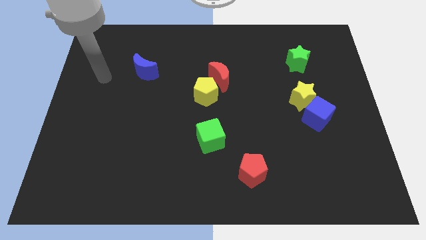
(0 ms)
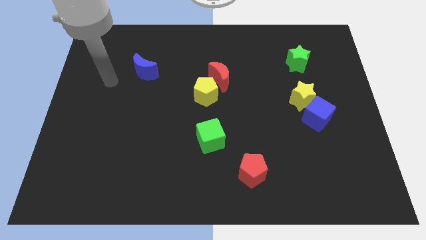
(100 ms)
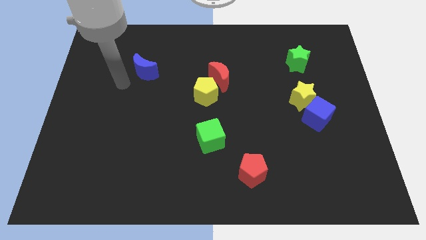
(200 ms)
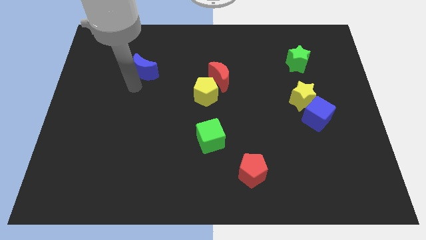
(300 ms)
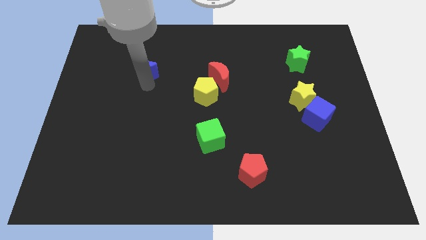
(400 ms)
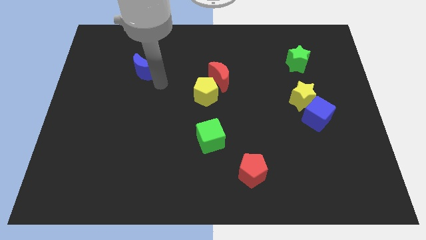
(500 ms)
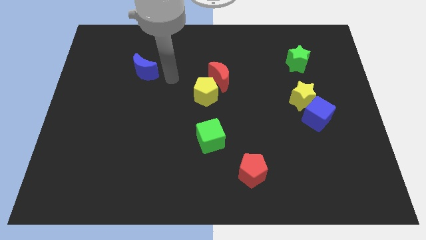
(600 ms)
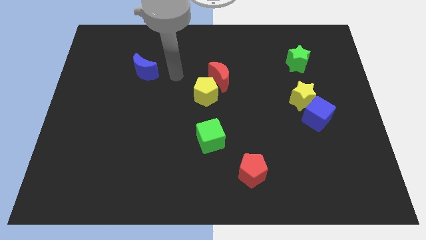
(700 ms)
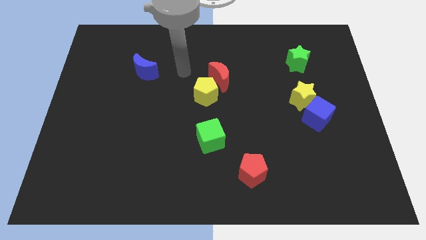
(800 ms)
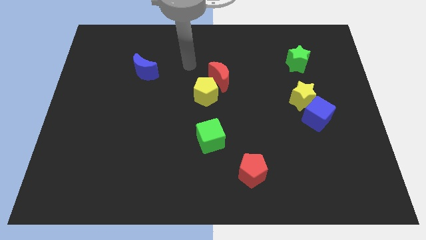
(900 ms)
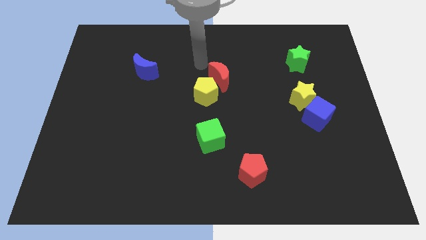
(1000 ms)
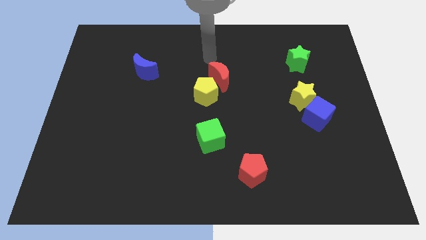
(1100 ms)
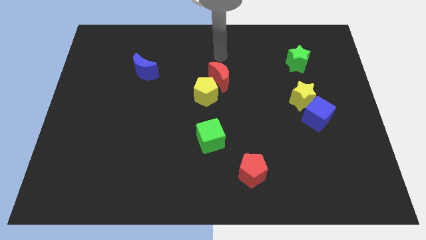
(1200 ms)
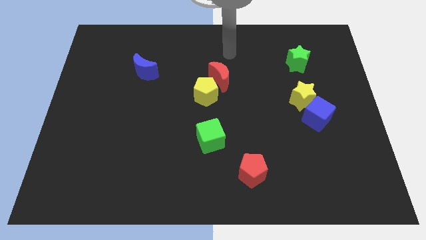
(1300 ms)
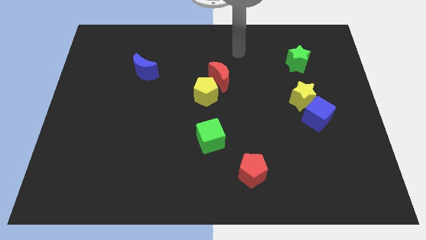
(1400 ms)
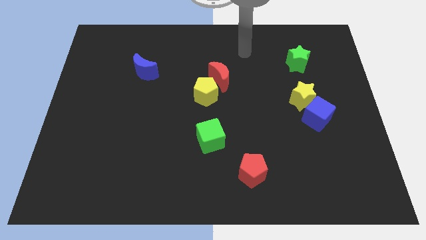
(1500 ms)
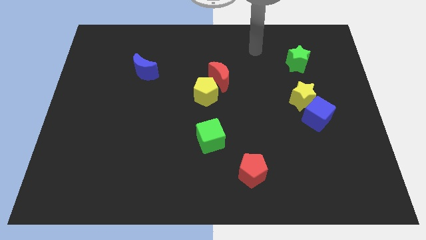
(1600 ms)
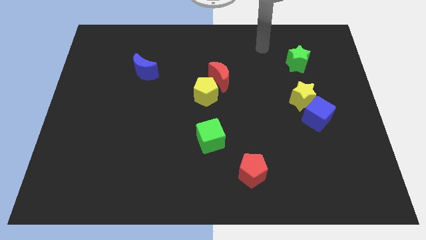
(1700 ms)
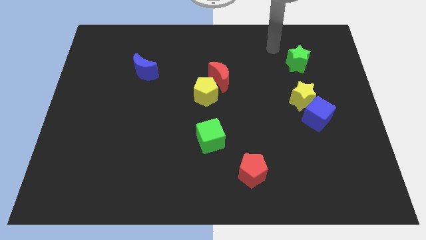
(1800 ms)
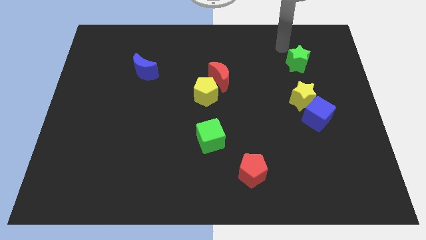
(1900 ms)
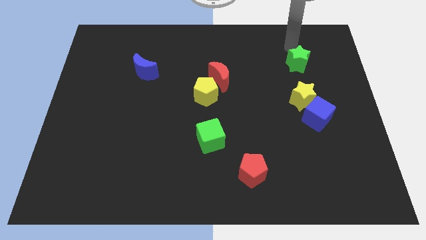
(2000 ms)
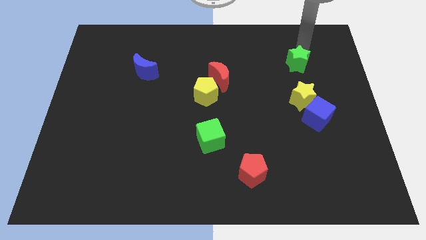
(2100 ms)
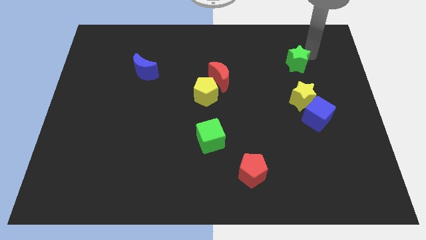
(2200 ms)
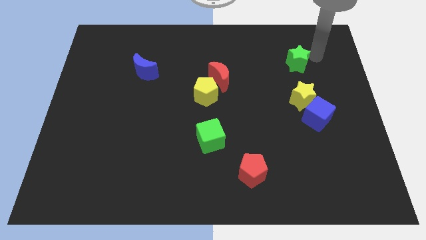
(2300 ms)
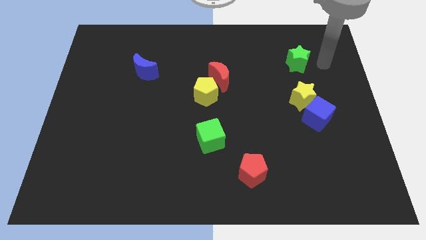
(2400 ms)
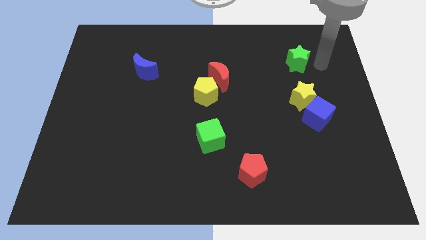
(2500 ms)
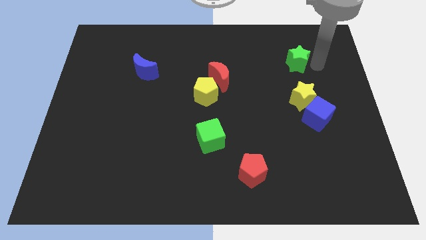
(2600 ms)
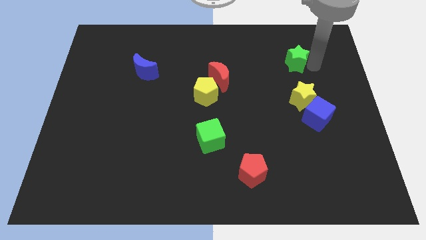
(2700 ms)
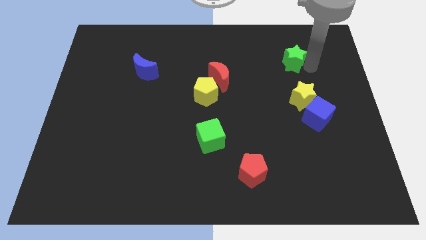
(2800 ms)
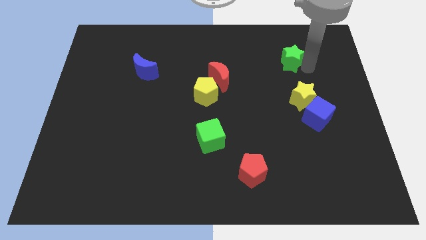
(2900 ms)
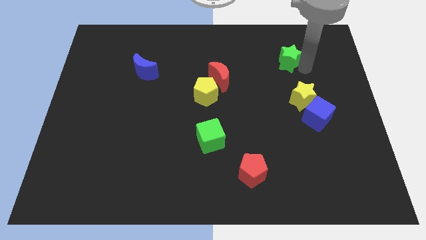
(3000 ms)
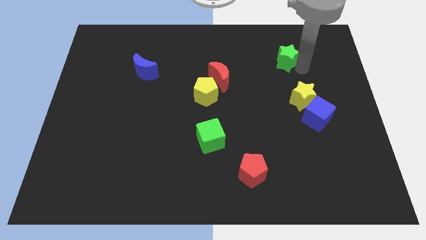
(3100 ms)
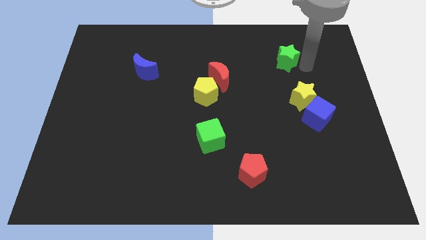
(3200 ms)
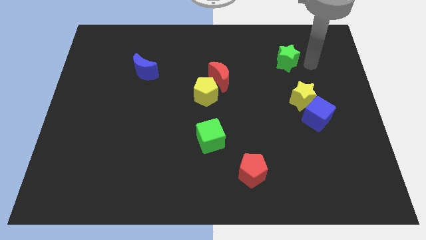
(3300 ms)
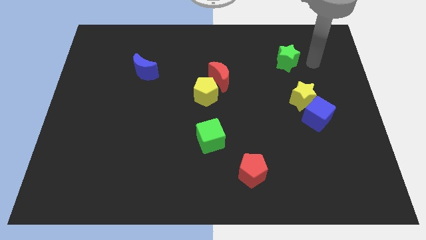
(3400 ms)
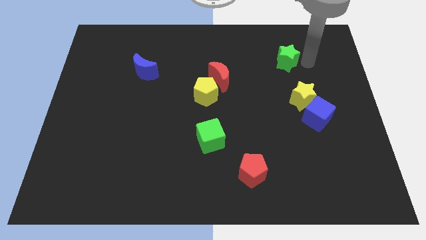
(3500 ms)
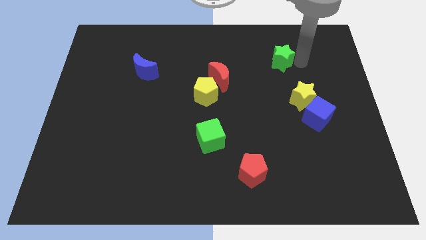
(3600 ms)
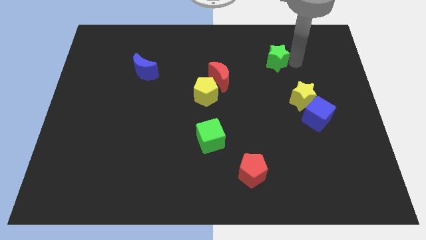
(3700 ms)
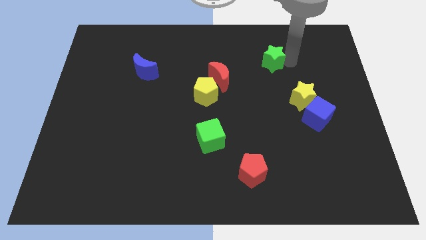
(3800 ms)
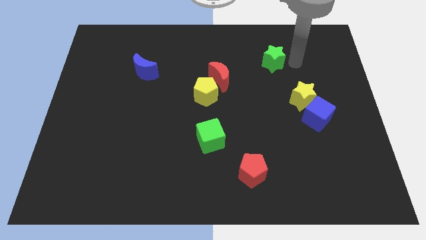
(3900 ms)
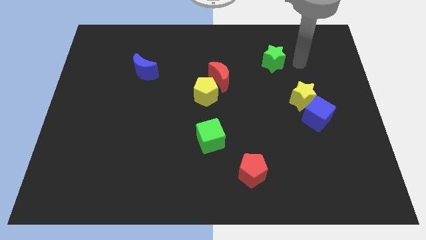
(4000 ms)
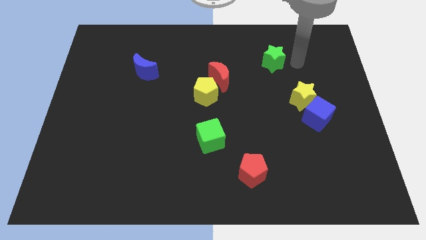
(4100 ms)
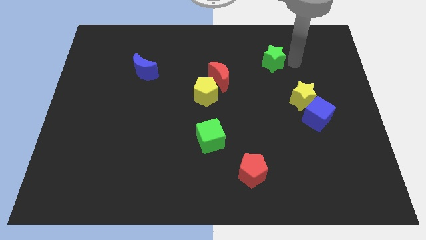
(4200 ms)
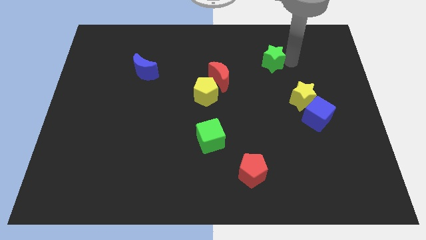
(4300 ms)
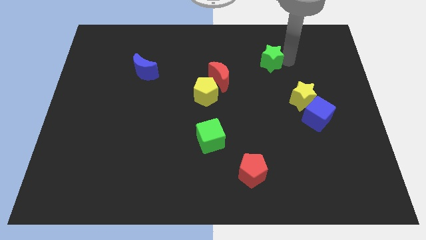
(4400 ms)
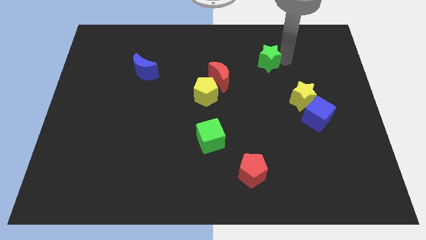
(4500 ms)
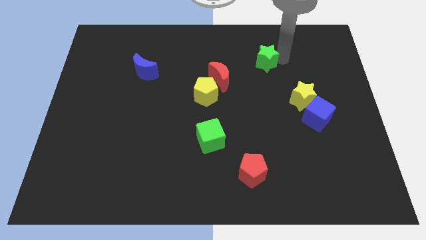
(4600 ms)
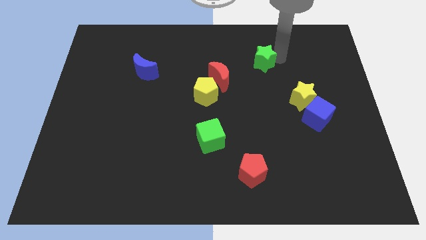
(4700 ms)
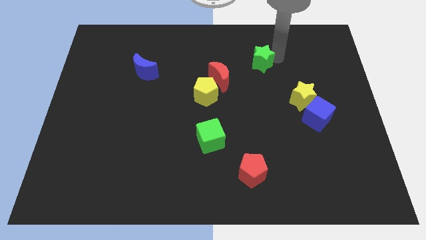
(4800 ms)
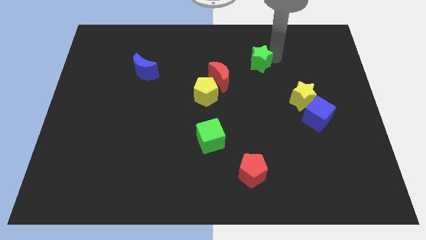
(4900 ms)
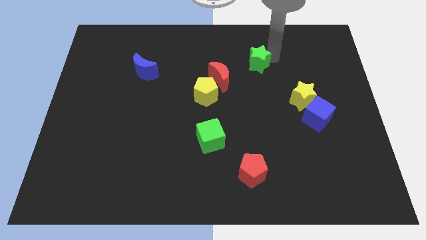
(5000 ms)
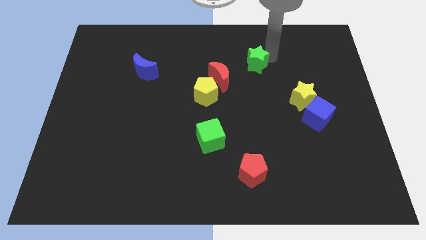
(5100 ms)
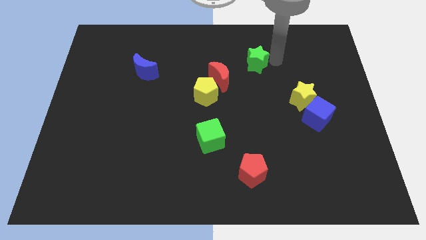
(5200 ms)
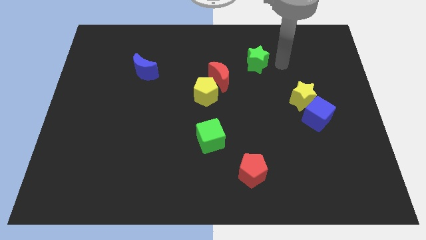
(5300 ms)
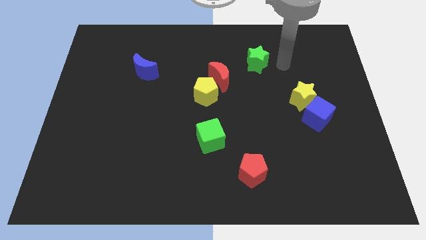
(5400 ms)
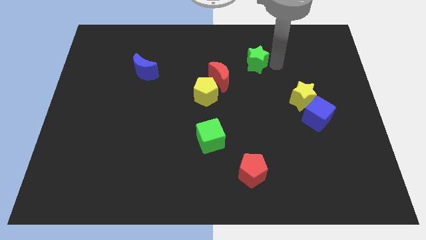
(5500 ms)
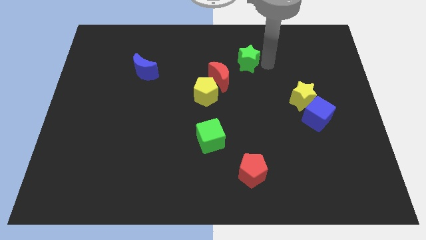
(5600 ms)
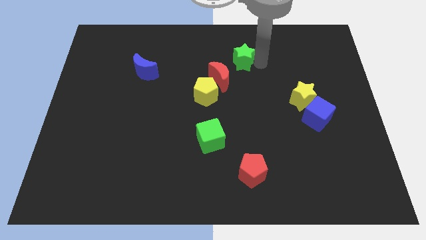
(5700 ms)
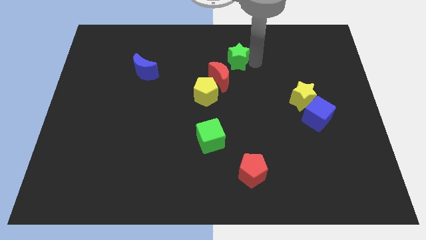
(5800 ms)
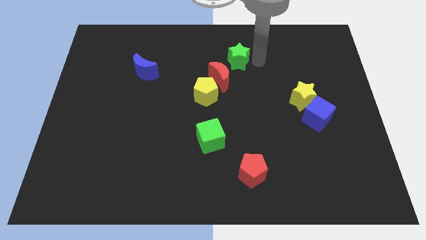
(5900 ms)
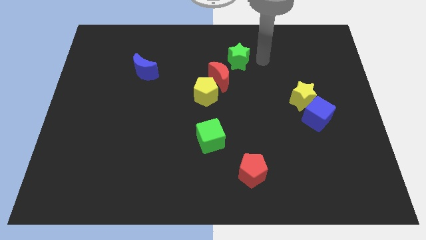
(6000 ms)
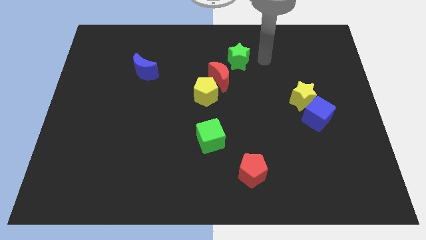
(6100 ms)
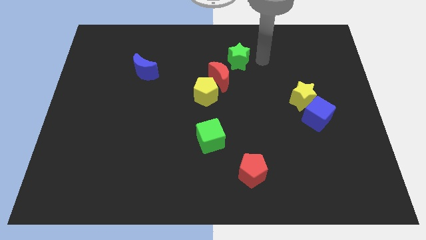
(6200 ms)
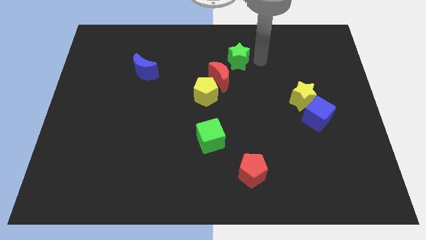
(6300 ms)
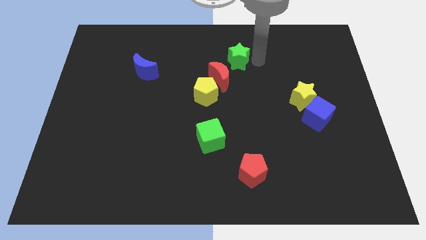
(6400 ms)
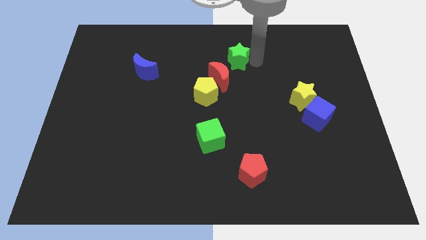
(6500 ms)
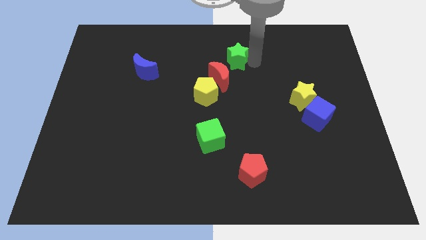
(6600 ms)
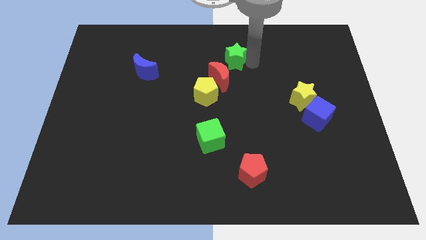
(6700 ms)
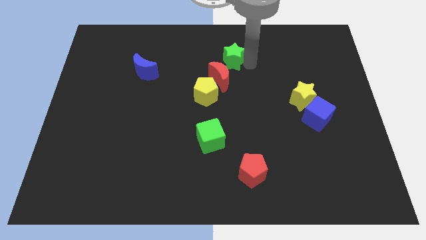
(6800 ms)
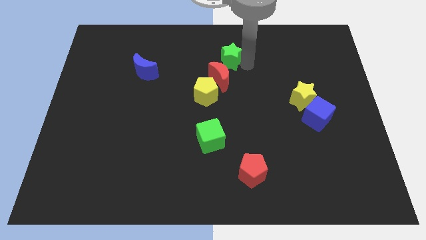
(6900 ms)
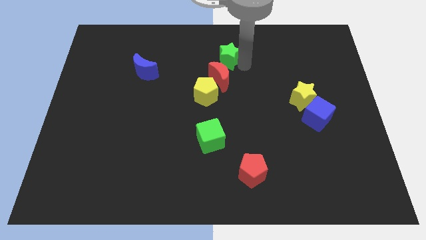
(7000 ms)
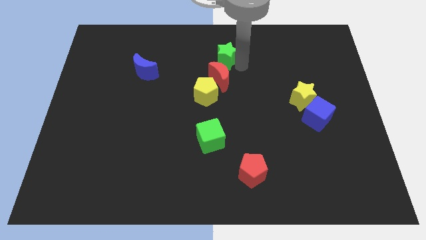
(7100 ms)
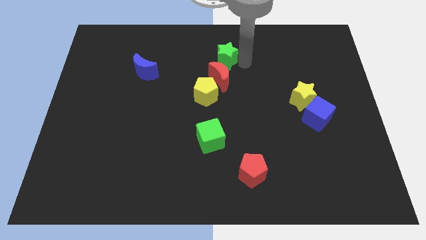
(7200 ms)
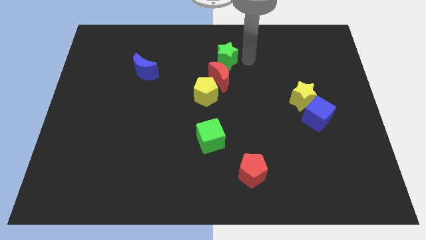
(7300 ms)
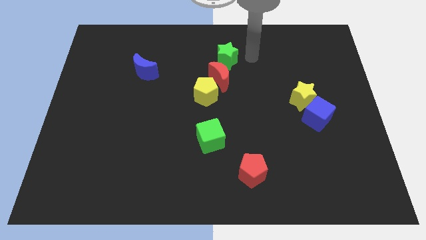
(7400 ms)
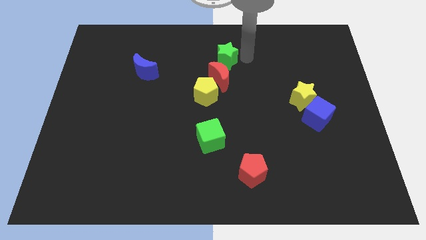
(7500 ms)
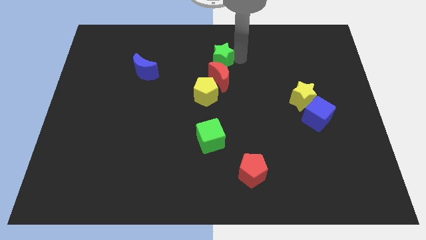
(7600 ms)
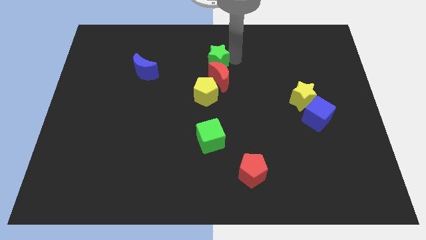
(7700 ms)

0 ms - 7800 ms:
push the green star left
